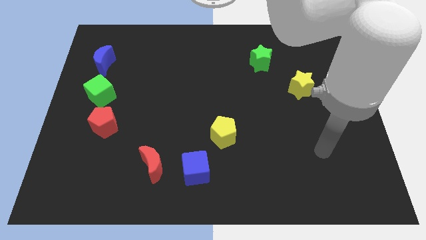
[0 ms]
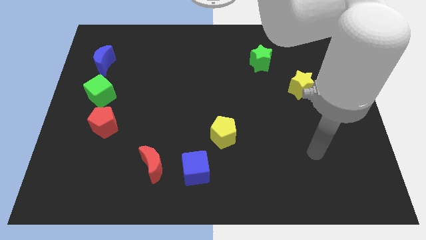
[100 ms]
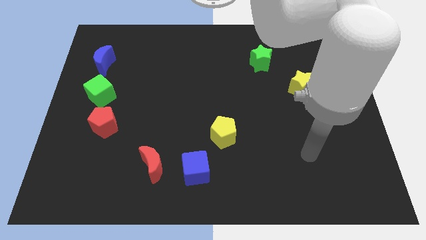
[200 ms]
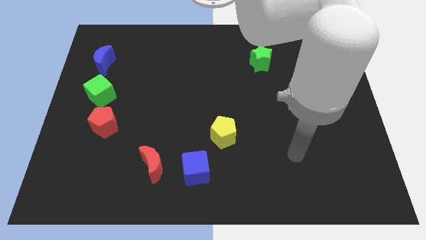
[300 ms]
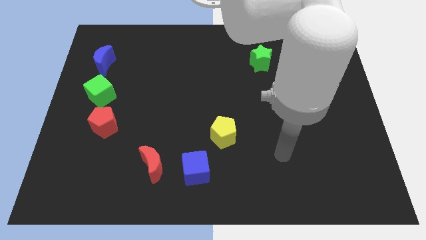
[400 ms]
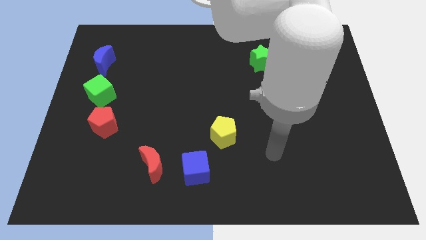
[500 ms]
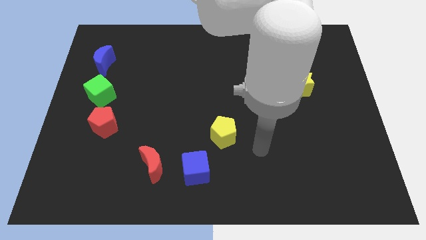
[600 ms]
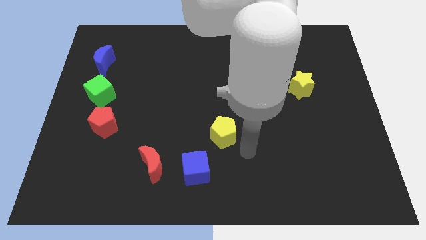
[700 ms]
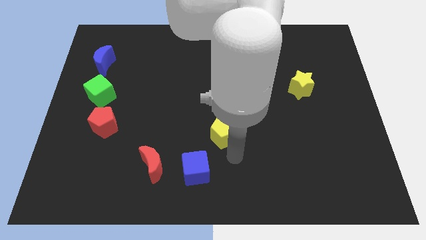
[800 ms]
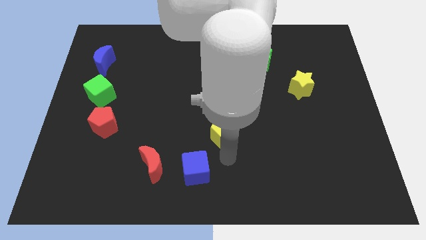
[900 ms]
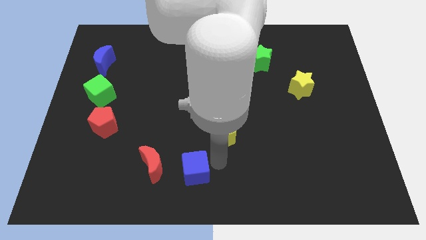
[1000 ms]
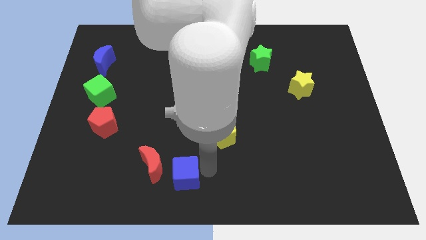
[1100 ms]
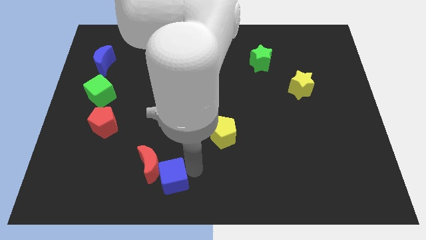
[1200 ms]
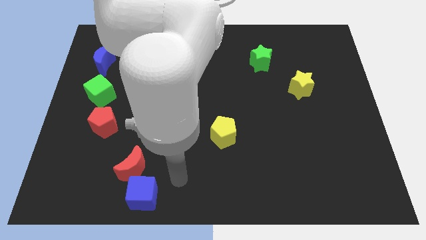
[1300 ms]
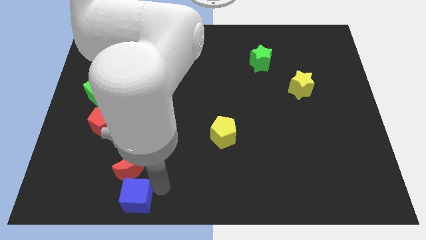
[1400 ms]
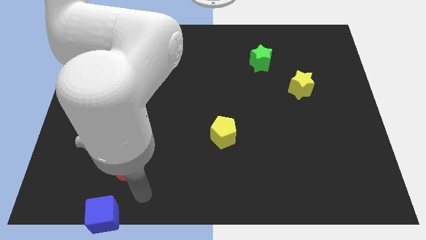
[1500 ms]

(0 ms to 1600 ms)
separate the red moon from the blue cube

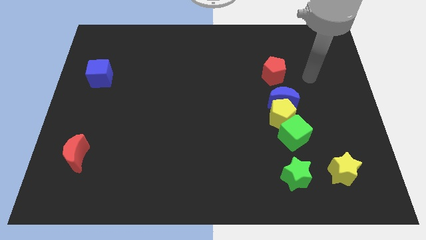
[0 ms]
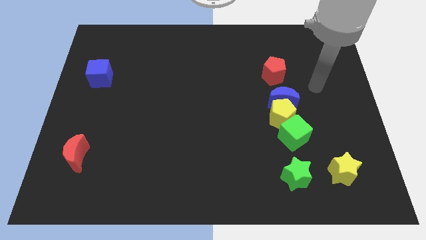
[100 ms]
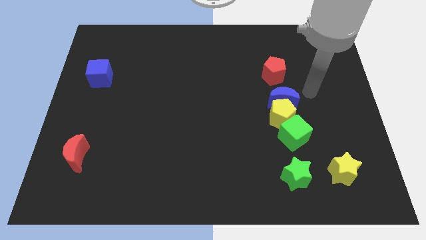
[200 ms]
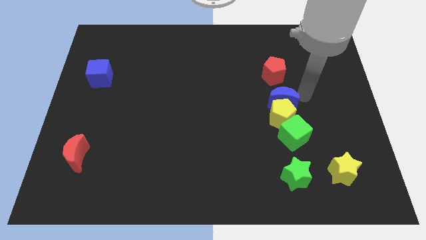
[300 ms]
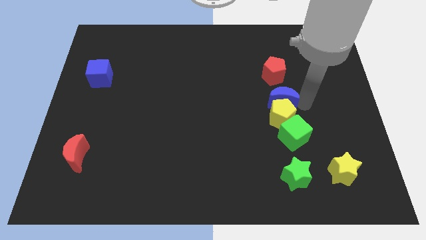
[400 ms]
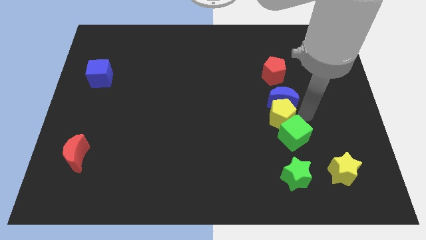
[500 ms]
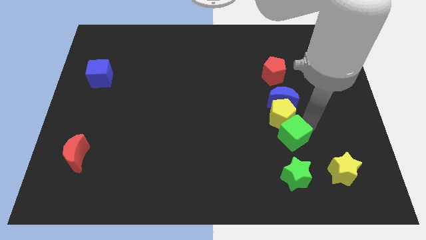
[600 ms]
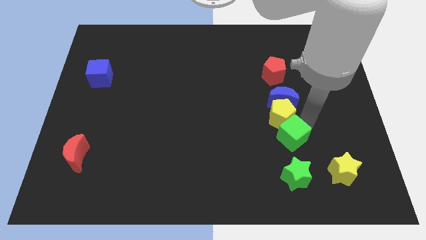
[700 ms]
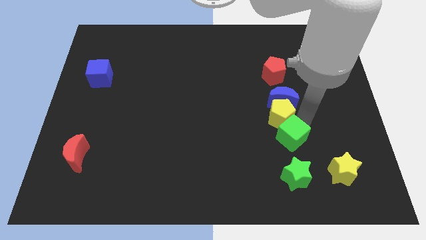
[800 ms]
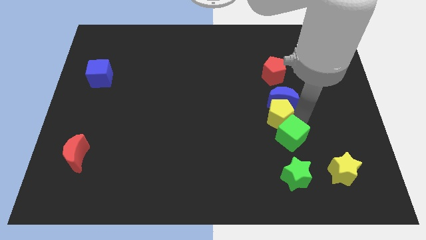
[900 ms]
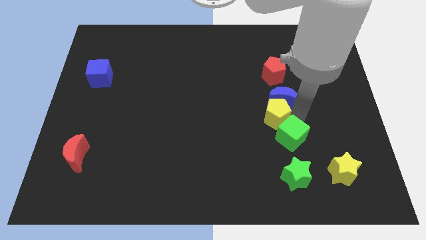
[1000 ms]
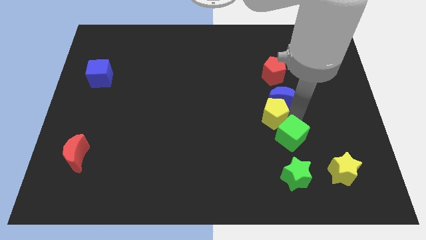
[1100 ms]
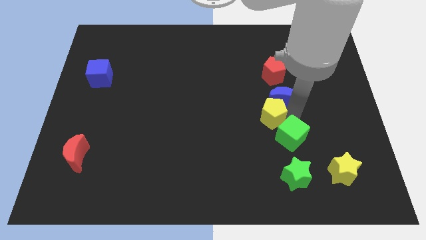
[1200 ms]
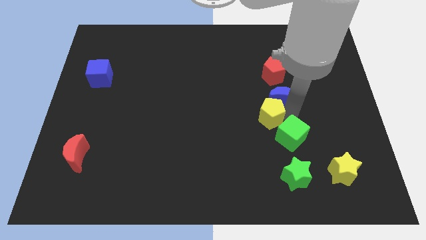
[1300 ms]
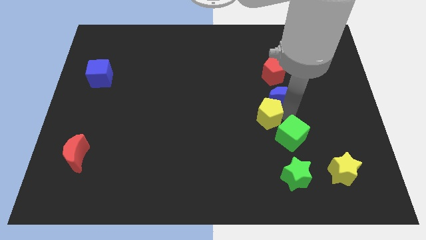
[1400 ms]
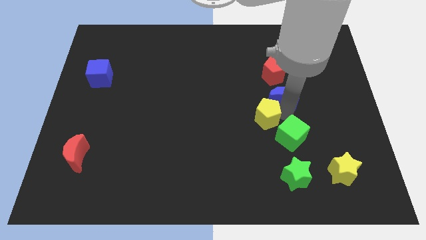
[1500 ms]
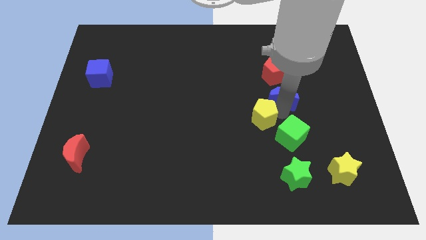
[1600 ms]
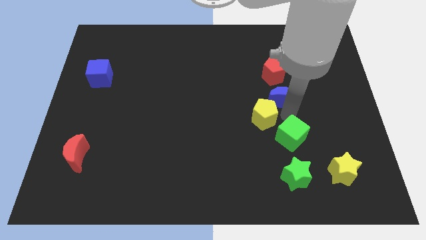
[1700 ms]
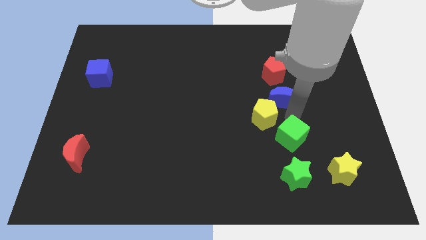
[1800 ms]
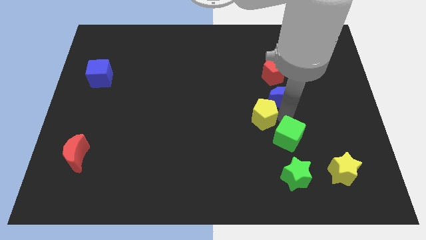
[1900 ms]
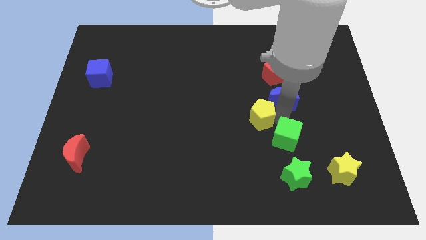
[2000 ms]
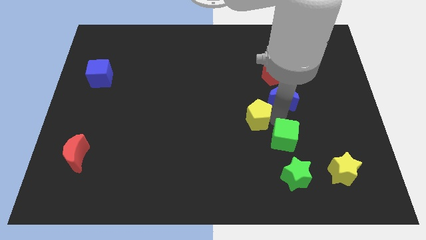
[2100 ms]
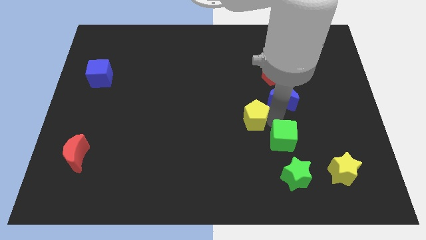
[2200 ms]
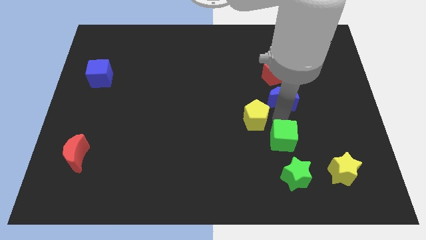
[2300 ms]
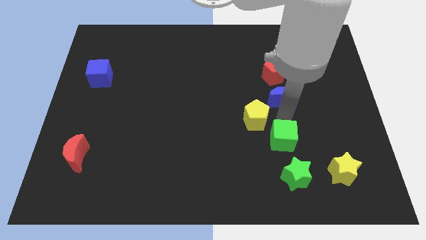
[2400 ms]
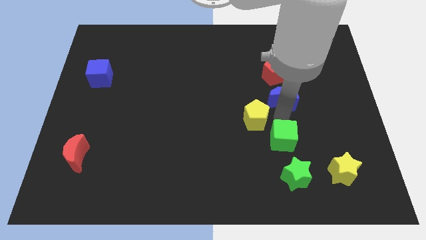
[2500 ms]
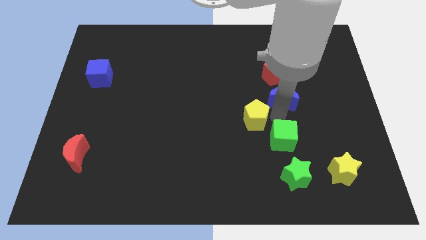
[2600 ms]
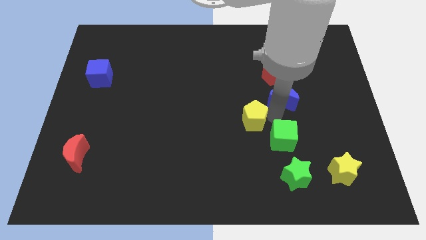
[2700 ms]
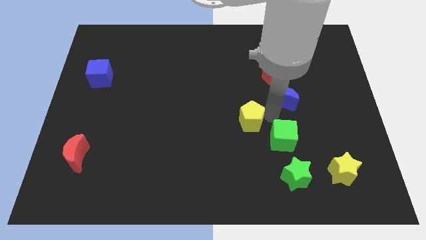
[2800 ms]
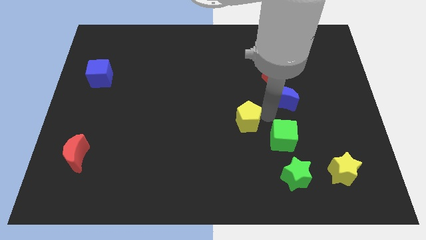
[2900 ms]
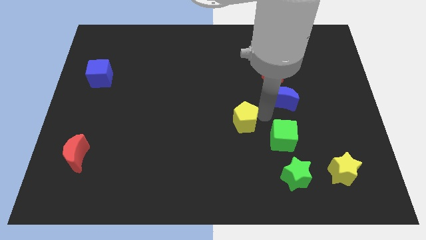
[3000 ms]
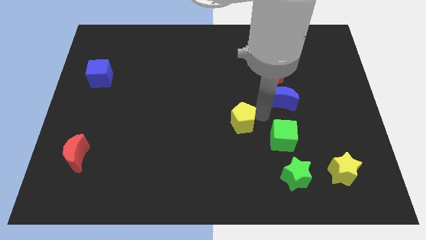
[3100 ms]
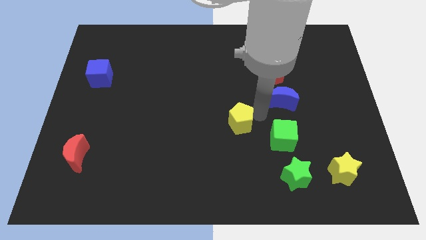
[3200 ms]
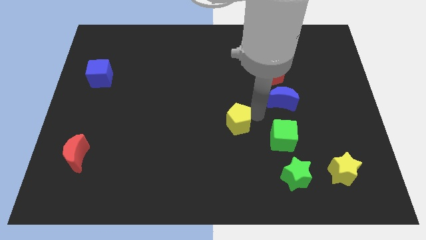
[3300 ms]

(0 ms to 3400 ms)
pull the yellow pentagon apart from the blue moon and green cube

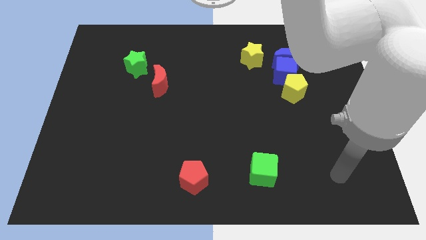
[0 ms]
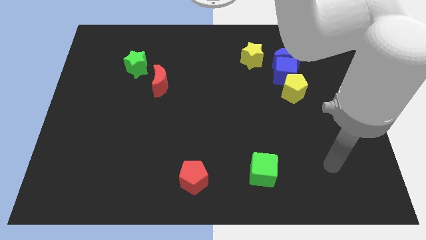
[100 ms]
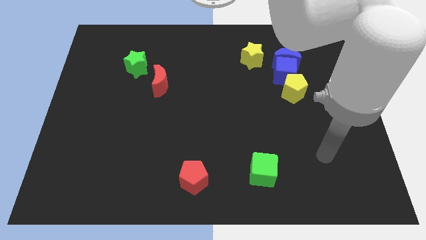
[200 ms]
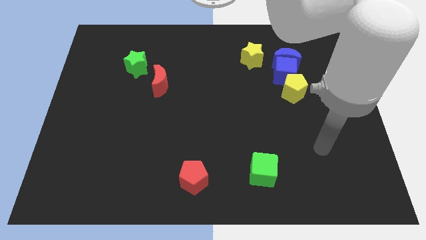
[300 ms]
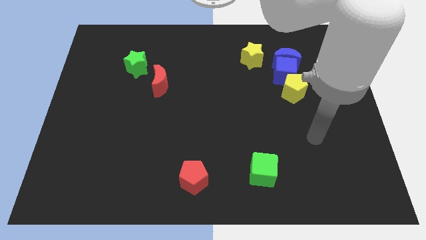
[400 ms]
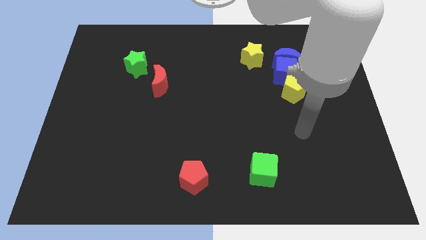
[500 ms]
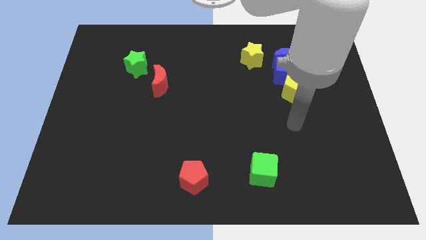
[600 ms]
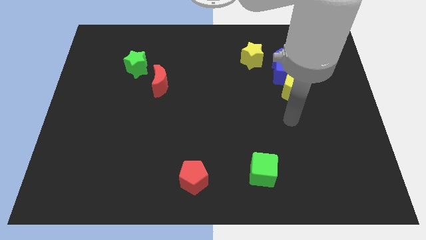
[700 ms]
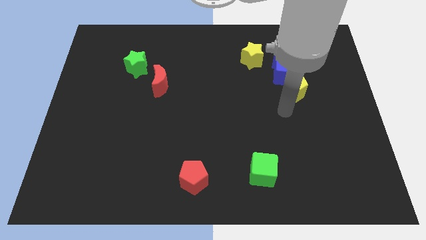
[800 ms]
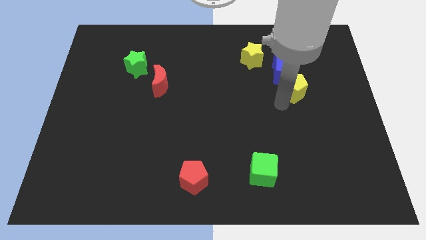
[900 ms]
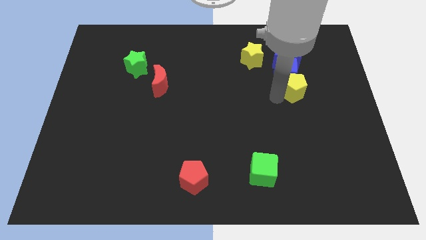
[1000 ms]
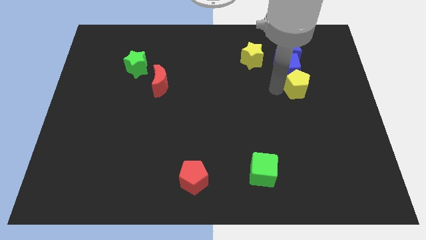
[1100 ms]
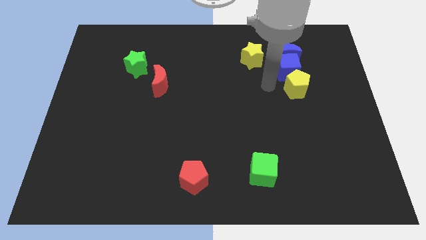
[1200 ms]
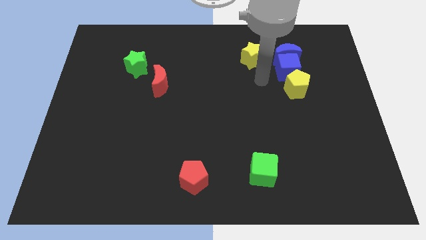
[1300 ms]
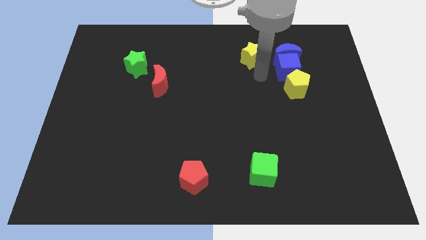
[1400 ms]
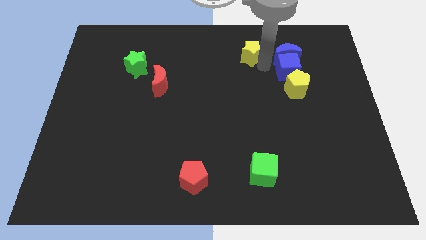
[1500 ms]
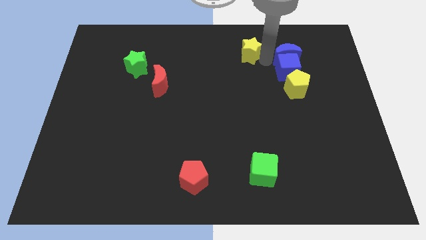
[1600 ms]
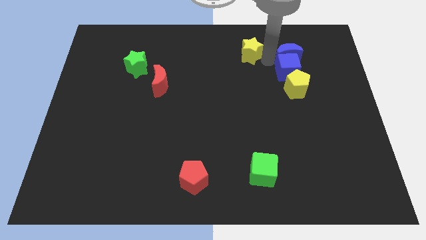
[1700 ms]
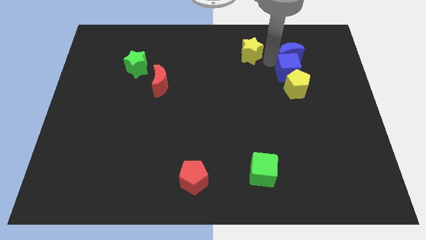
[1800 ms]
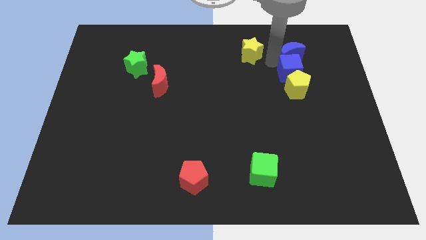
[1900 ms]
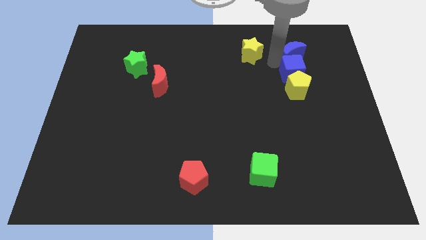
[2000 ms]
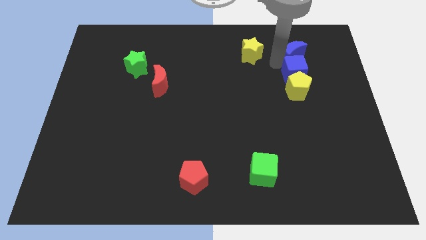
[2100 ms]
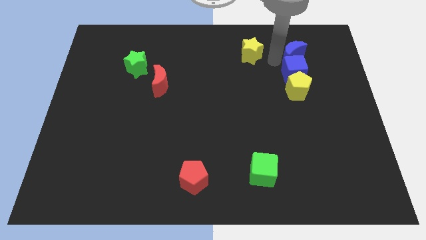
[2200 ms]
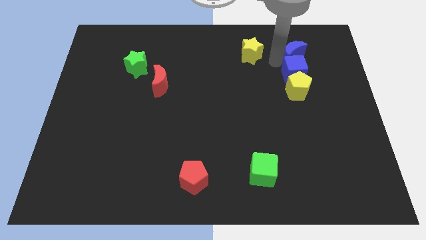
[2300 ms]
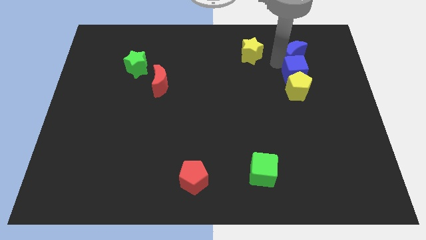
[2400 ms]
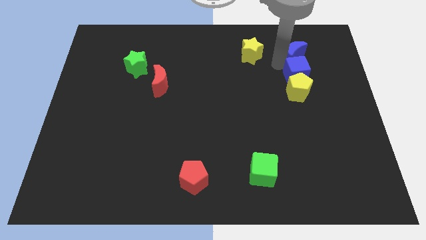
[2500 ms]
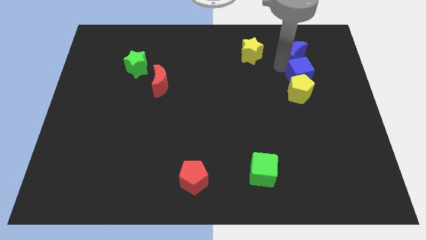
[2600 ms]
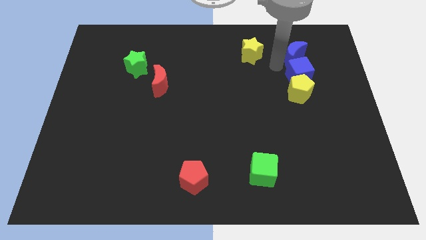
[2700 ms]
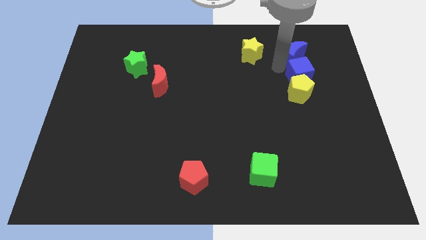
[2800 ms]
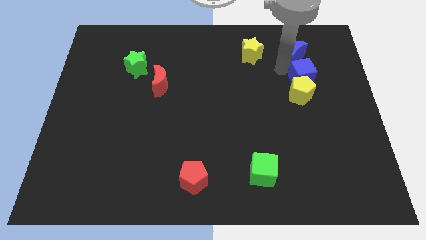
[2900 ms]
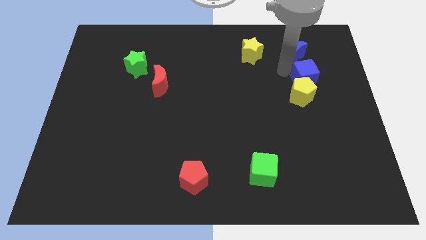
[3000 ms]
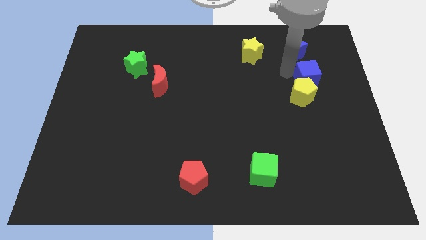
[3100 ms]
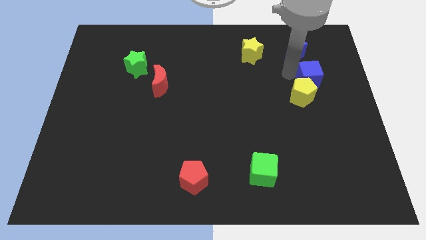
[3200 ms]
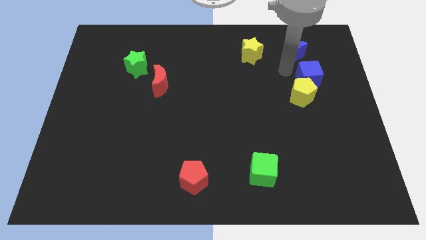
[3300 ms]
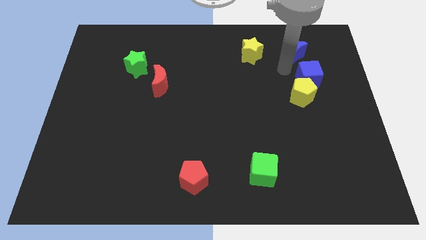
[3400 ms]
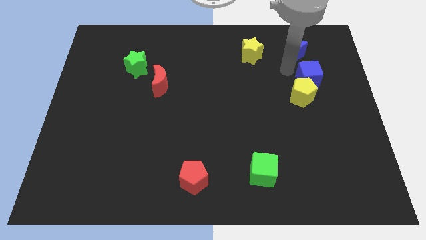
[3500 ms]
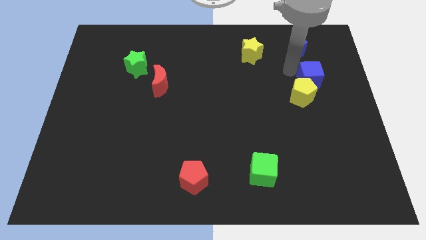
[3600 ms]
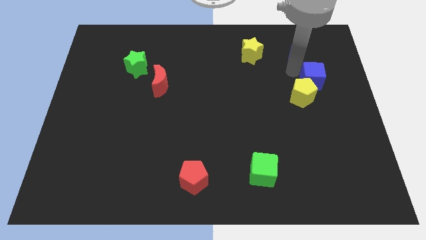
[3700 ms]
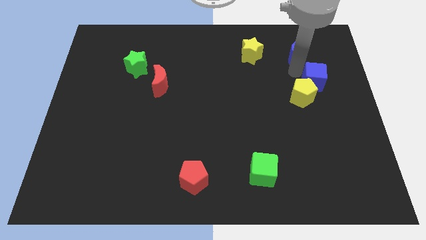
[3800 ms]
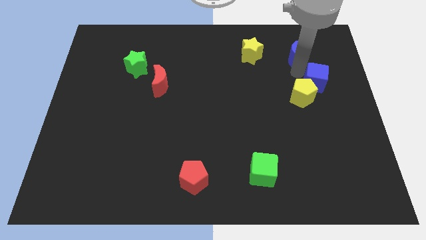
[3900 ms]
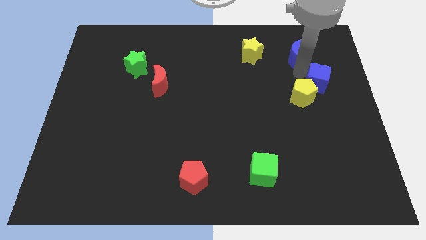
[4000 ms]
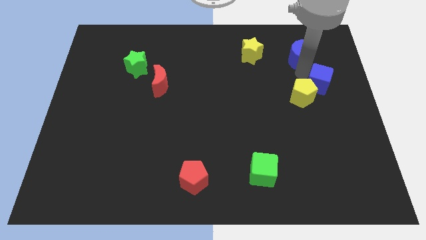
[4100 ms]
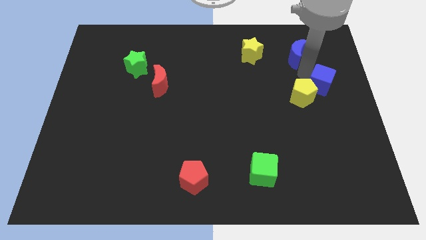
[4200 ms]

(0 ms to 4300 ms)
move the blue cube away from the group of blocks
